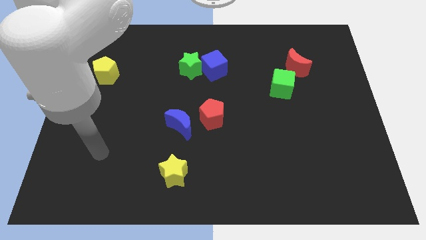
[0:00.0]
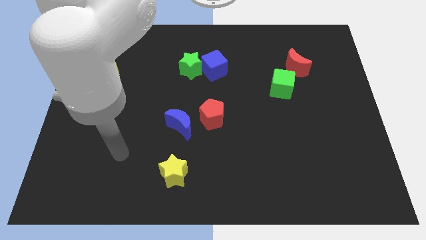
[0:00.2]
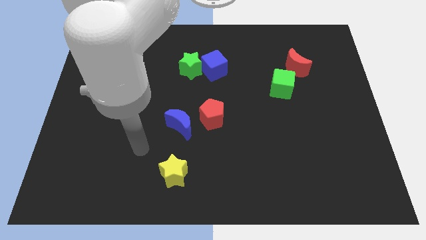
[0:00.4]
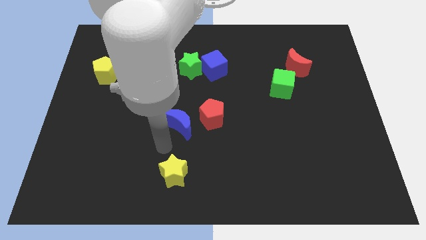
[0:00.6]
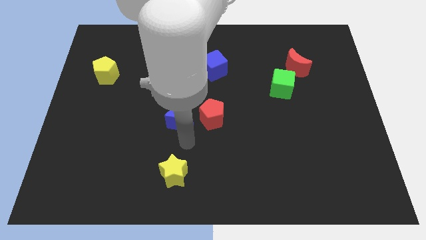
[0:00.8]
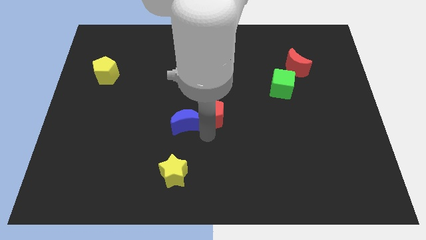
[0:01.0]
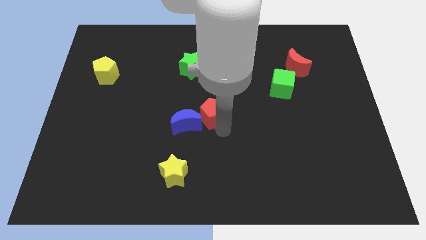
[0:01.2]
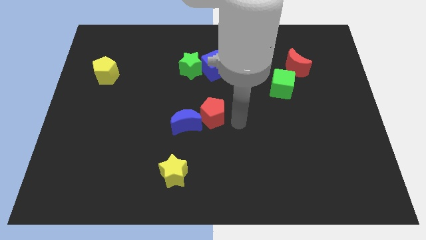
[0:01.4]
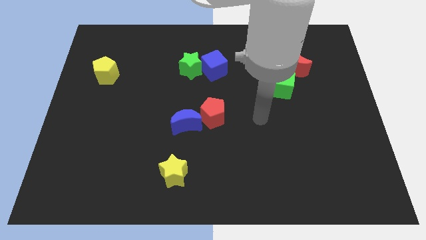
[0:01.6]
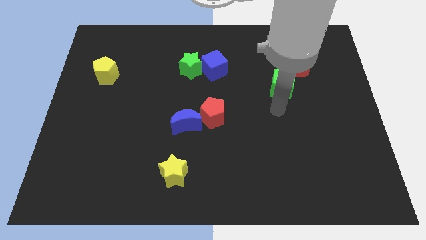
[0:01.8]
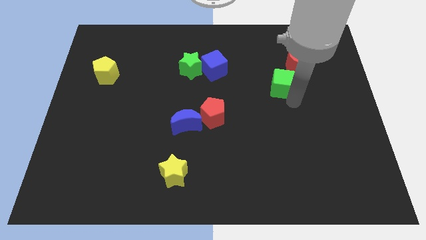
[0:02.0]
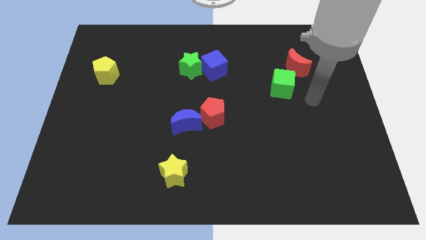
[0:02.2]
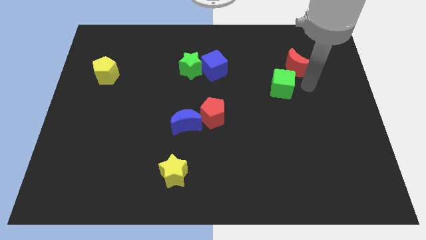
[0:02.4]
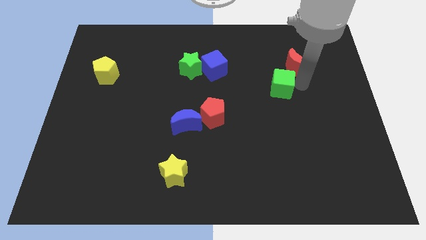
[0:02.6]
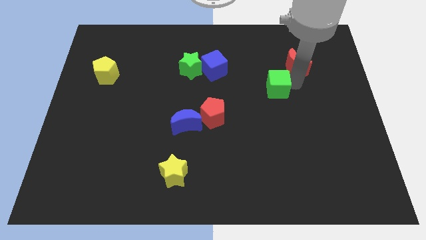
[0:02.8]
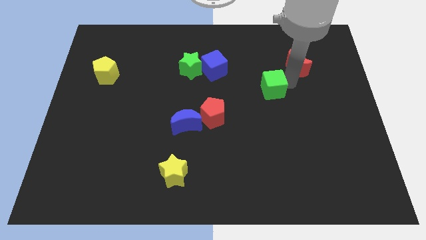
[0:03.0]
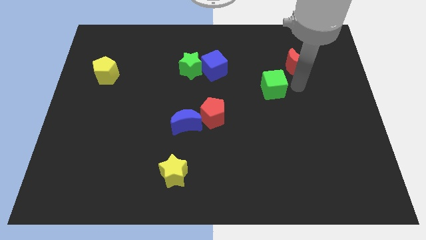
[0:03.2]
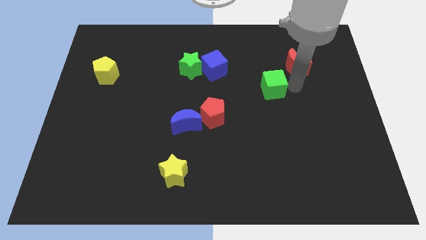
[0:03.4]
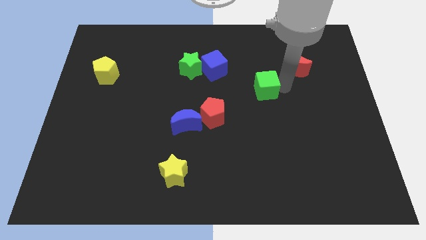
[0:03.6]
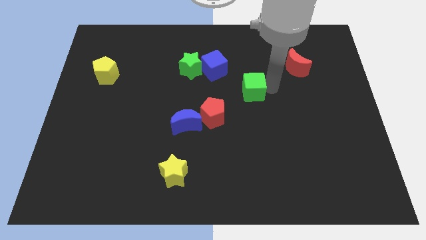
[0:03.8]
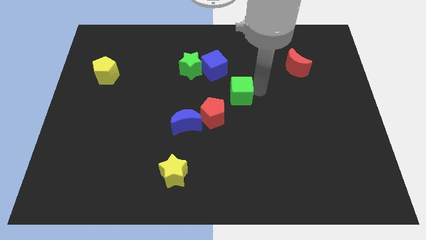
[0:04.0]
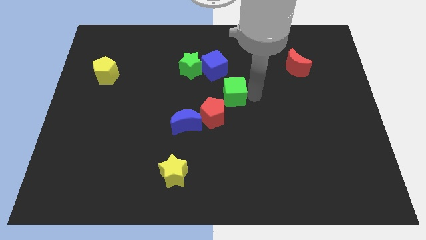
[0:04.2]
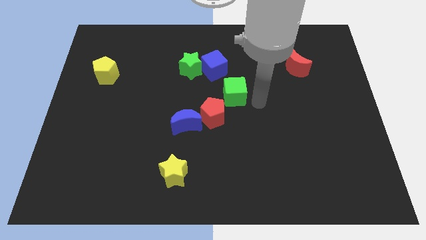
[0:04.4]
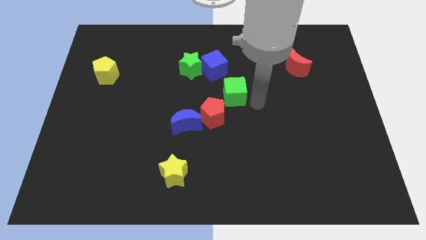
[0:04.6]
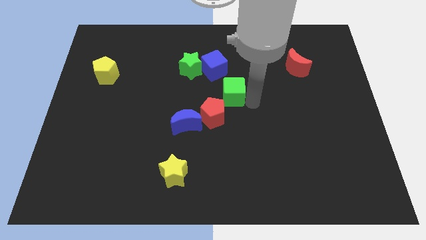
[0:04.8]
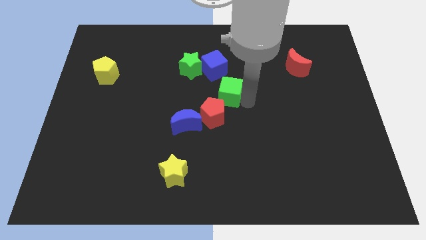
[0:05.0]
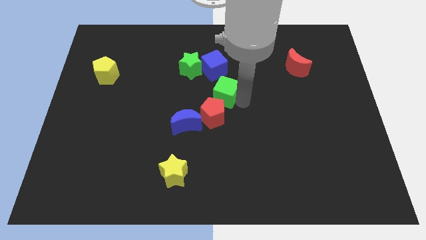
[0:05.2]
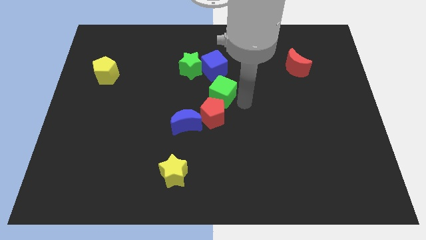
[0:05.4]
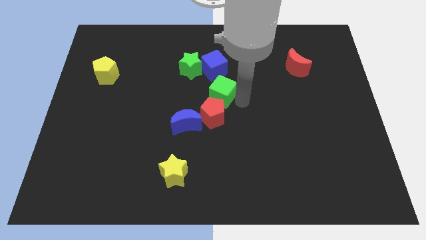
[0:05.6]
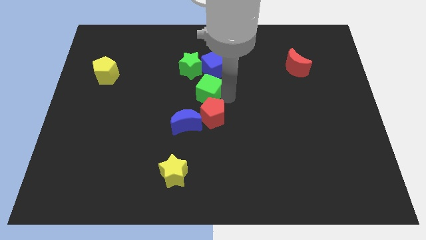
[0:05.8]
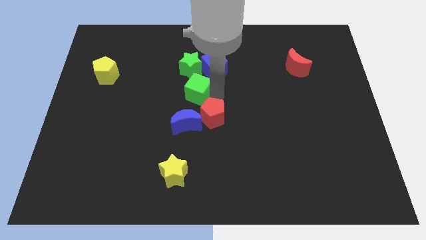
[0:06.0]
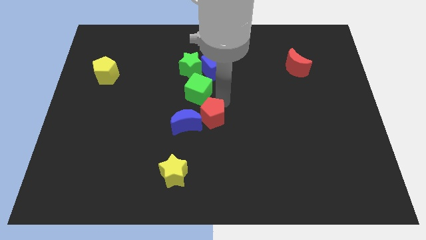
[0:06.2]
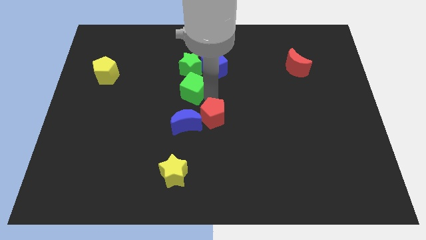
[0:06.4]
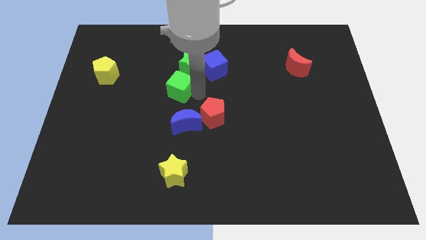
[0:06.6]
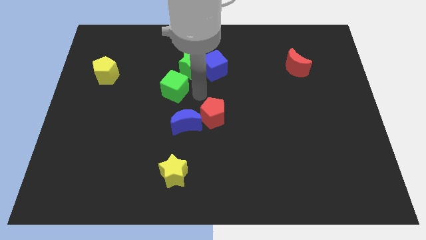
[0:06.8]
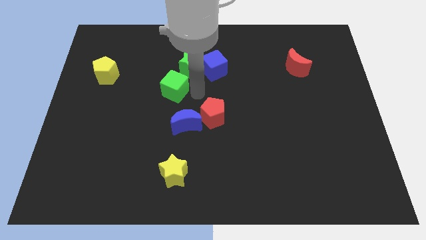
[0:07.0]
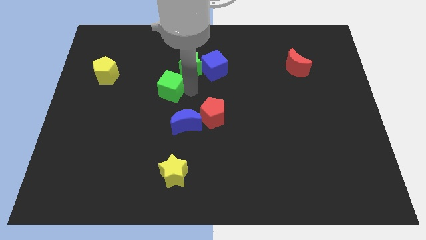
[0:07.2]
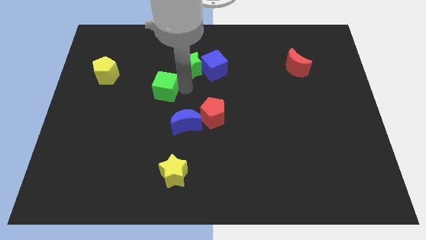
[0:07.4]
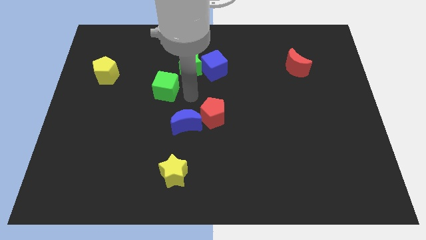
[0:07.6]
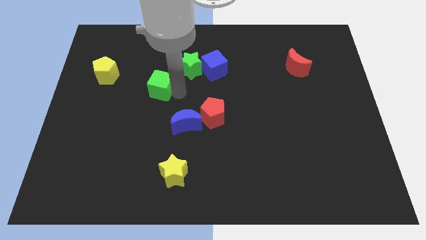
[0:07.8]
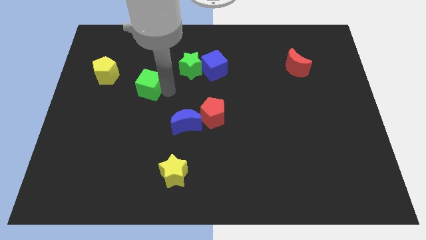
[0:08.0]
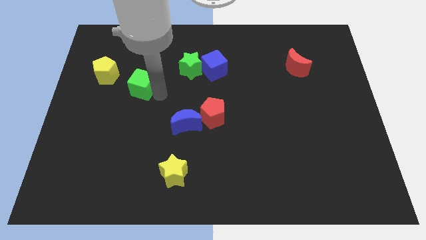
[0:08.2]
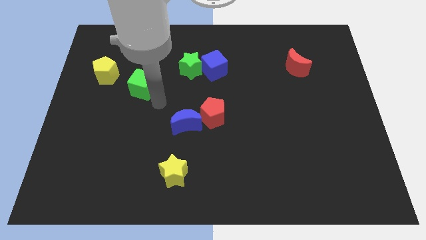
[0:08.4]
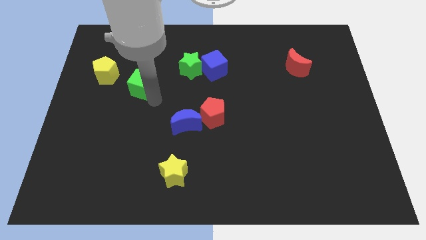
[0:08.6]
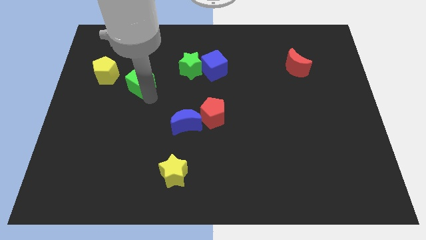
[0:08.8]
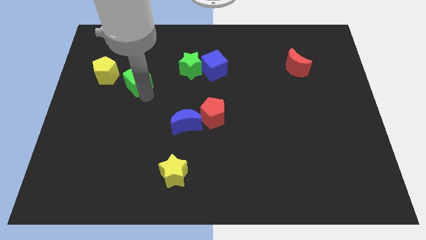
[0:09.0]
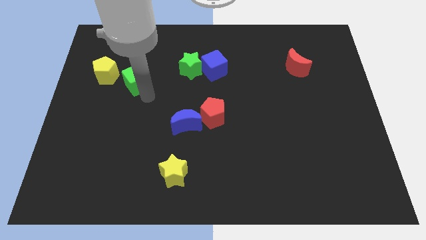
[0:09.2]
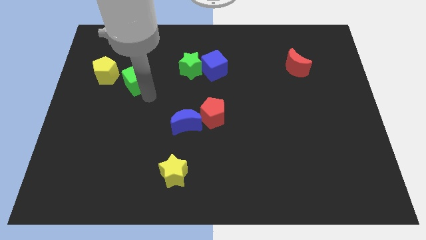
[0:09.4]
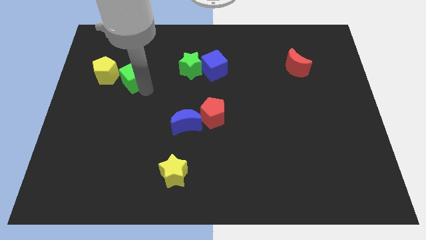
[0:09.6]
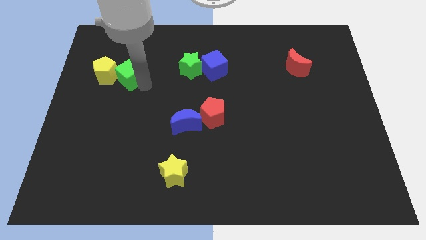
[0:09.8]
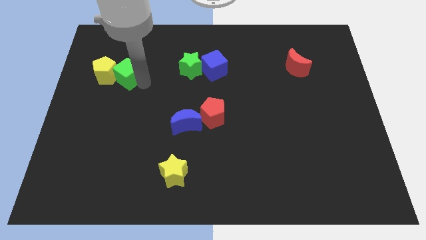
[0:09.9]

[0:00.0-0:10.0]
put the green cube to the yellow pentagon

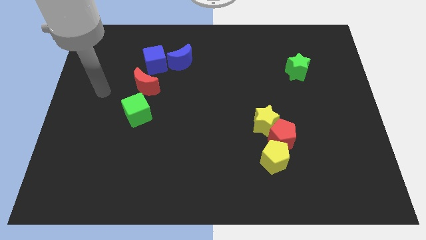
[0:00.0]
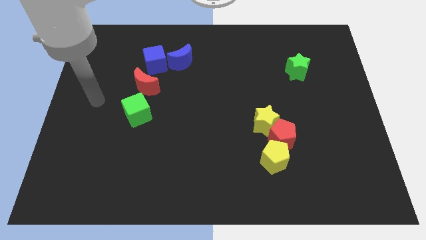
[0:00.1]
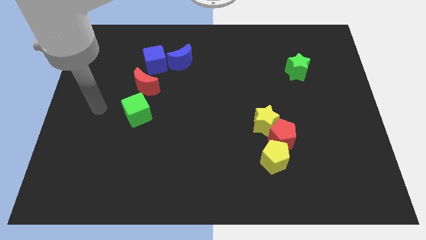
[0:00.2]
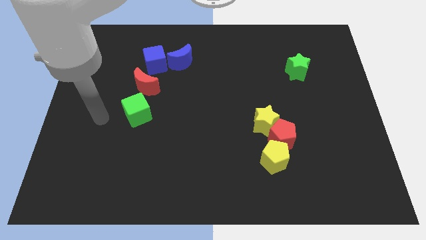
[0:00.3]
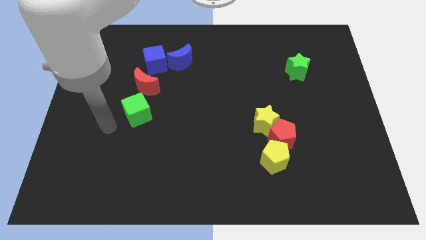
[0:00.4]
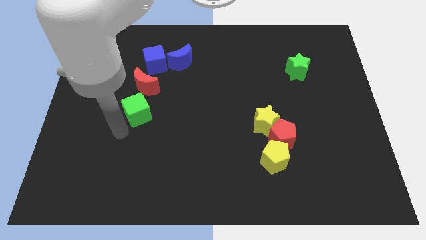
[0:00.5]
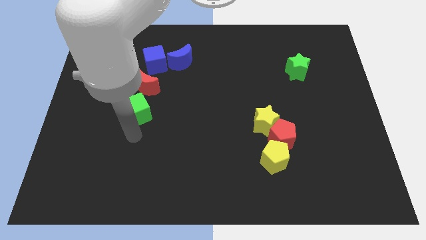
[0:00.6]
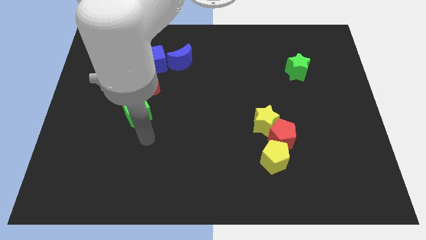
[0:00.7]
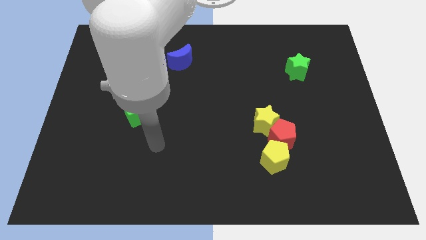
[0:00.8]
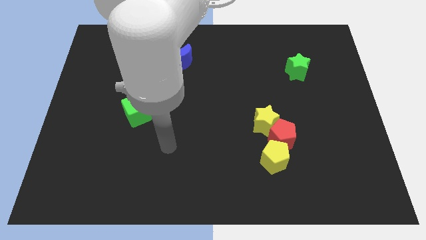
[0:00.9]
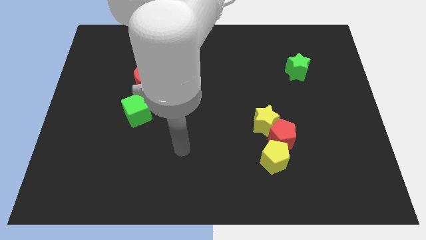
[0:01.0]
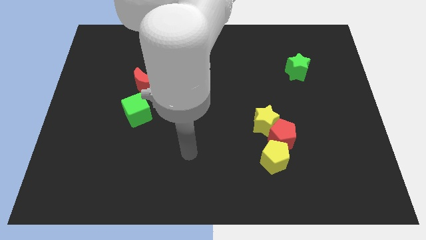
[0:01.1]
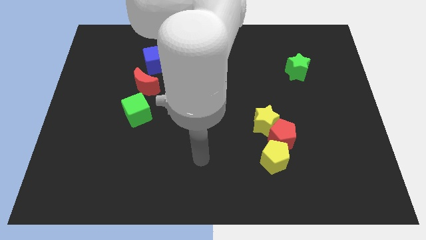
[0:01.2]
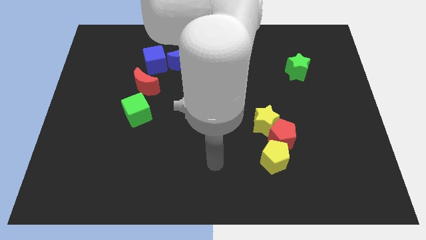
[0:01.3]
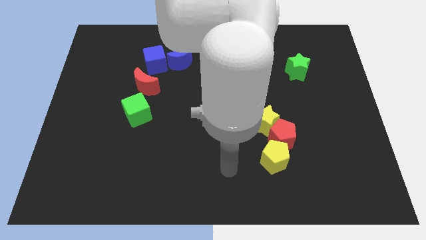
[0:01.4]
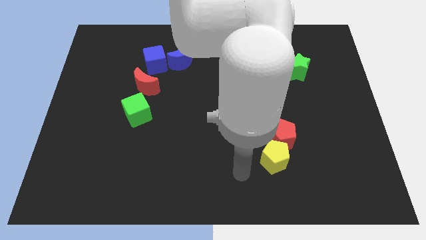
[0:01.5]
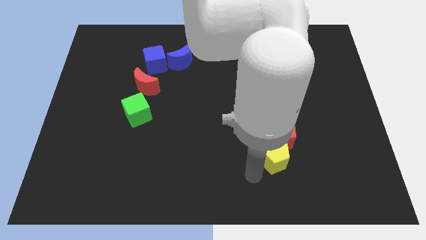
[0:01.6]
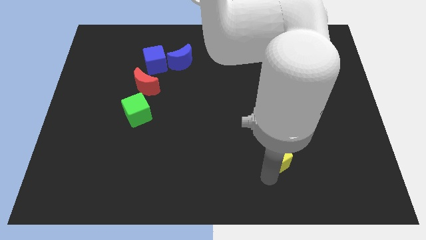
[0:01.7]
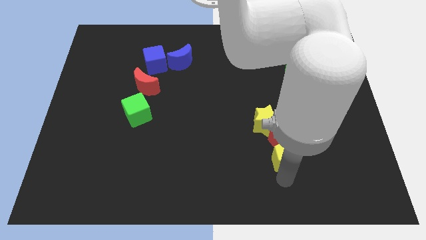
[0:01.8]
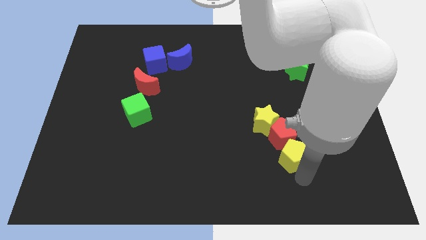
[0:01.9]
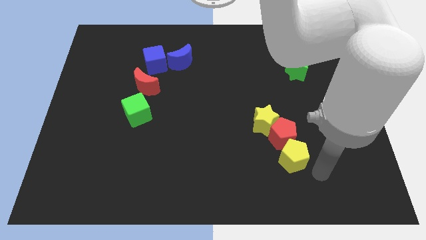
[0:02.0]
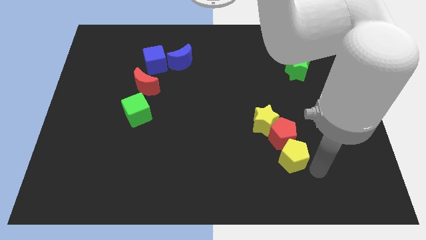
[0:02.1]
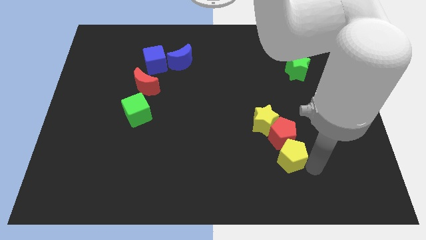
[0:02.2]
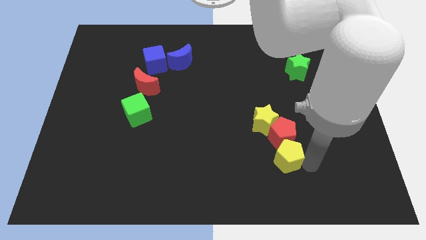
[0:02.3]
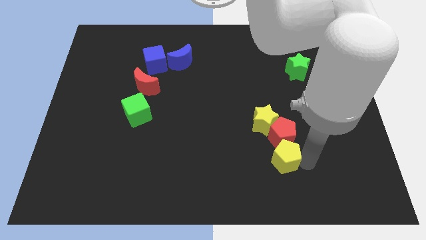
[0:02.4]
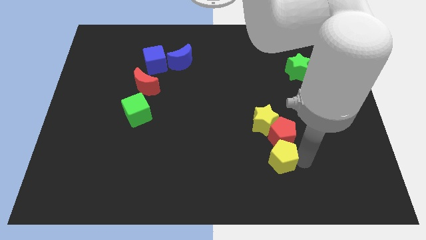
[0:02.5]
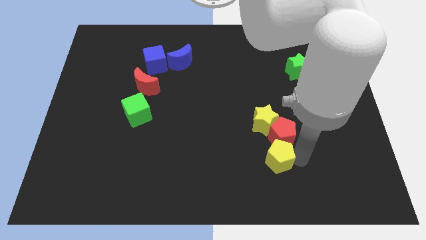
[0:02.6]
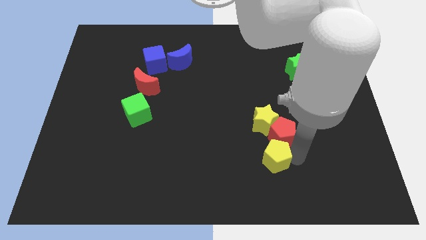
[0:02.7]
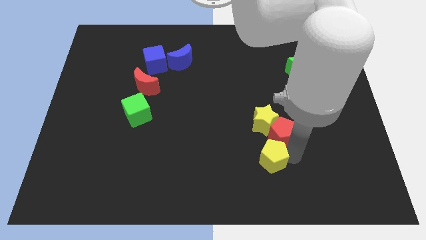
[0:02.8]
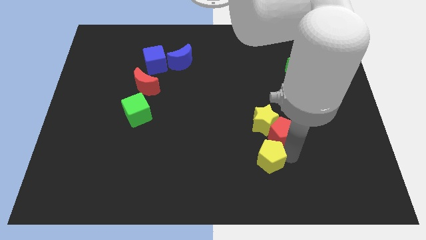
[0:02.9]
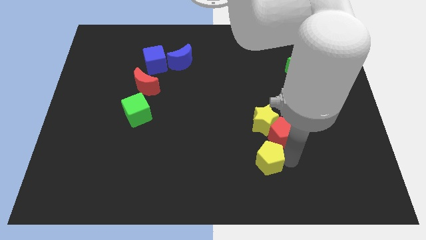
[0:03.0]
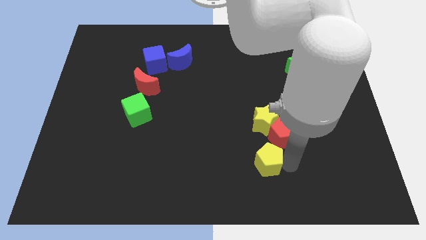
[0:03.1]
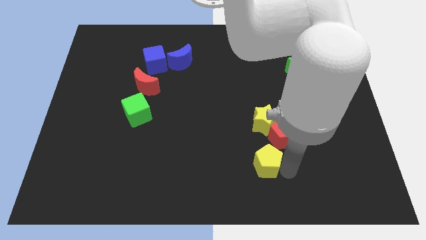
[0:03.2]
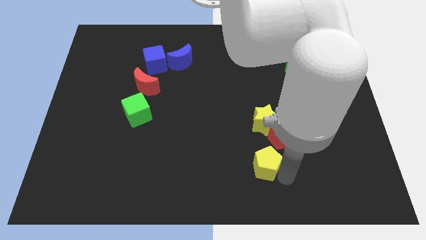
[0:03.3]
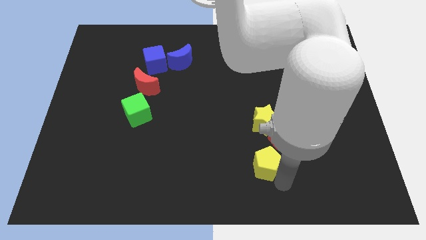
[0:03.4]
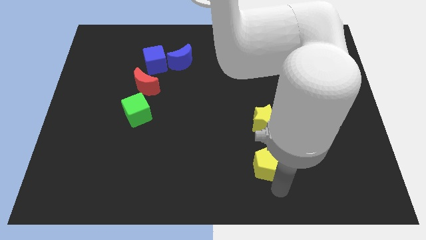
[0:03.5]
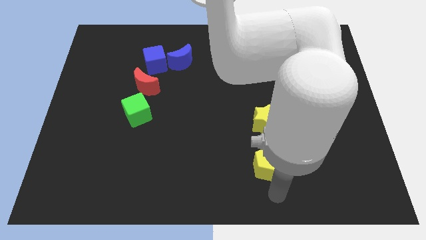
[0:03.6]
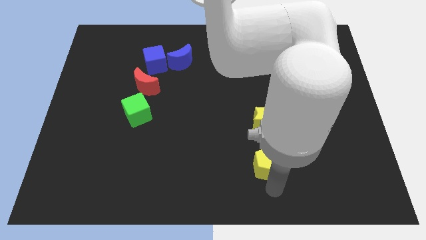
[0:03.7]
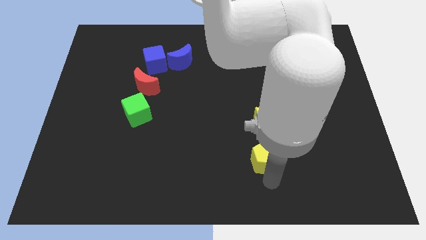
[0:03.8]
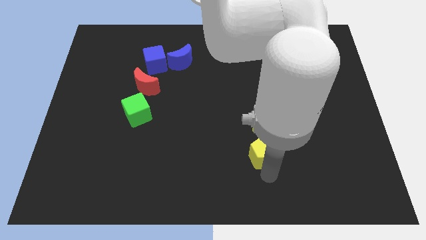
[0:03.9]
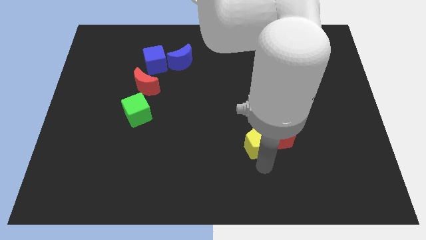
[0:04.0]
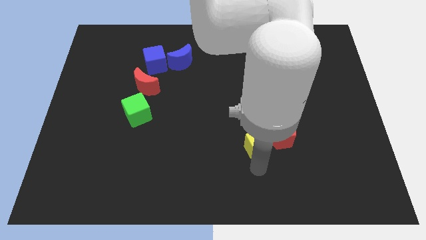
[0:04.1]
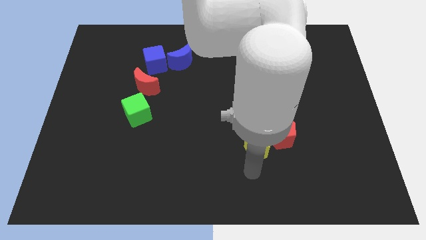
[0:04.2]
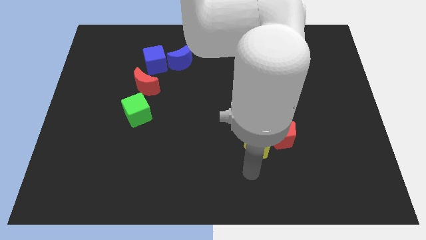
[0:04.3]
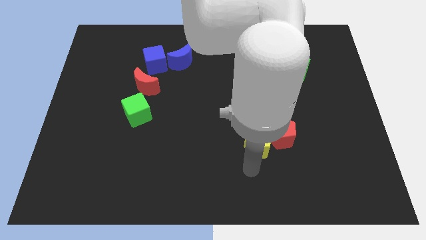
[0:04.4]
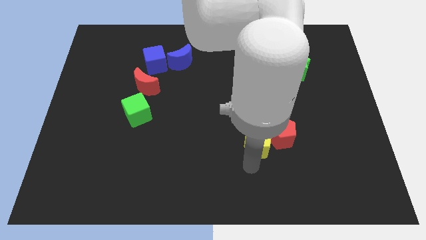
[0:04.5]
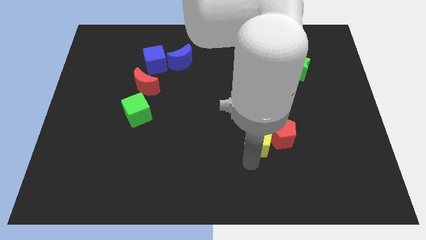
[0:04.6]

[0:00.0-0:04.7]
push the yellow pentagon close to the yellow star
